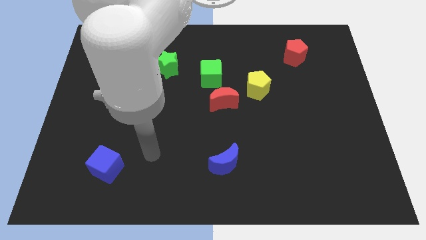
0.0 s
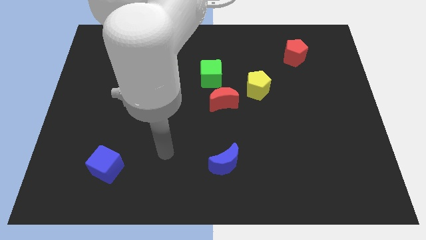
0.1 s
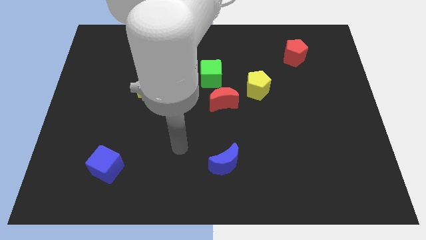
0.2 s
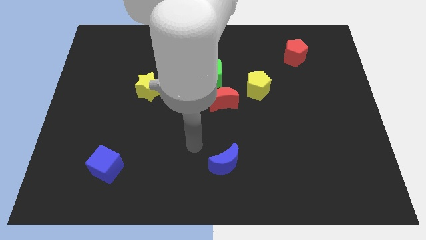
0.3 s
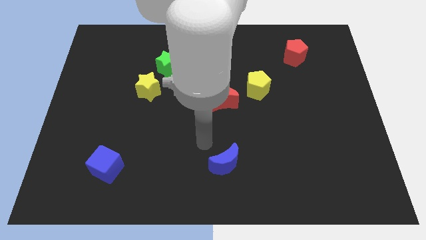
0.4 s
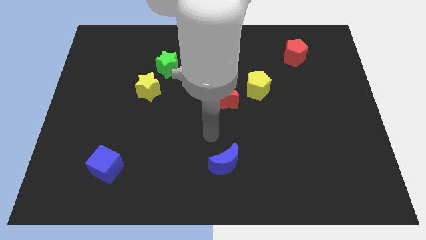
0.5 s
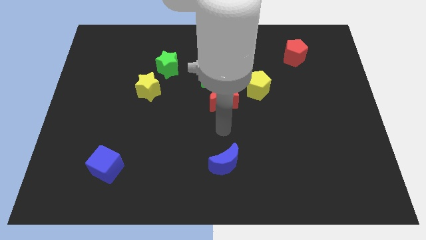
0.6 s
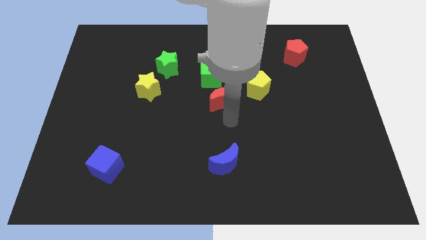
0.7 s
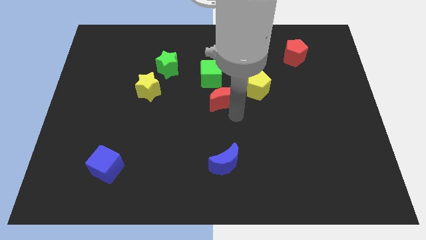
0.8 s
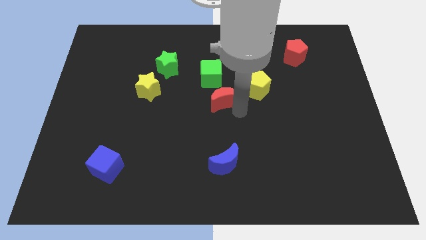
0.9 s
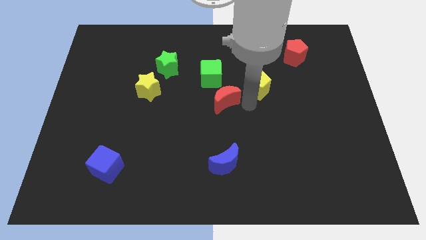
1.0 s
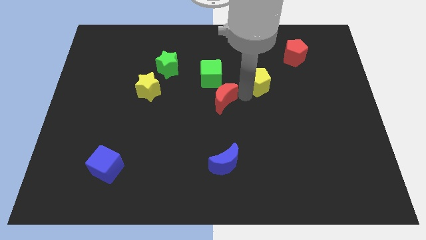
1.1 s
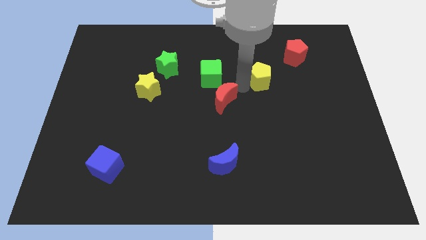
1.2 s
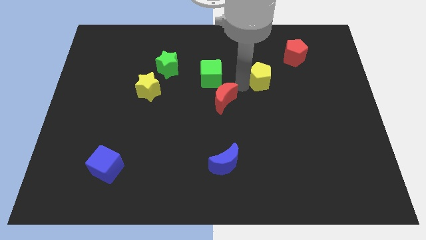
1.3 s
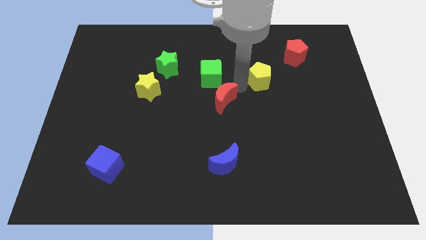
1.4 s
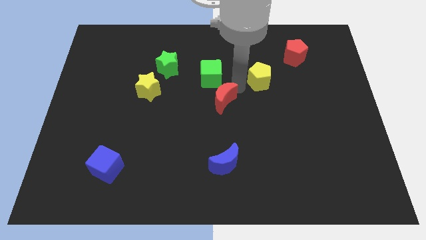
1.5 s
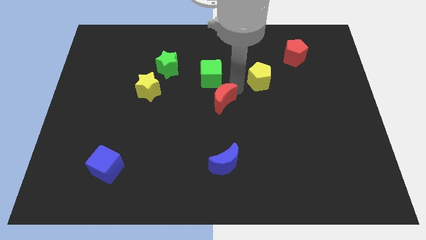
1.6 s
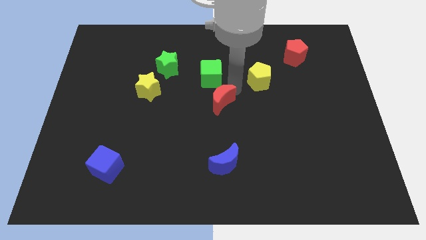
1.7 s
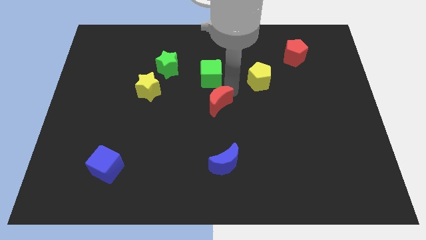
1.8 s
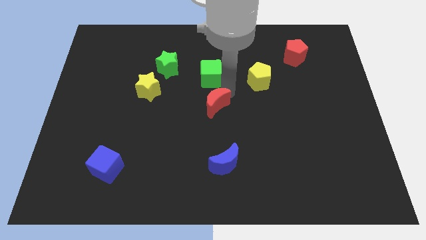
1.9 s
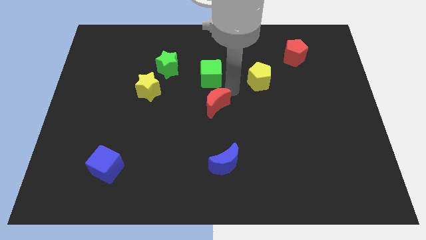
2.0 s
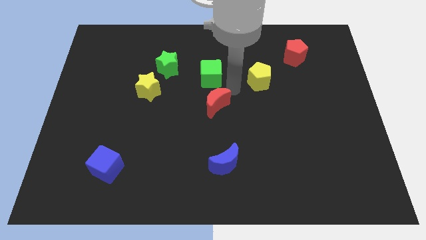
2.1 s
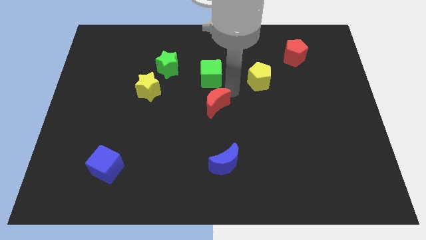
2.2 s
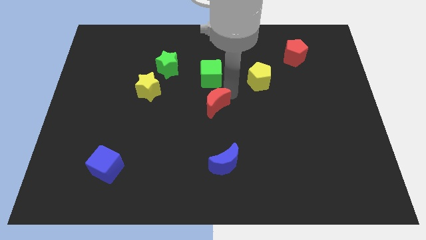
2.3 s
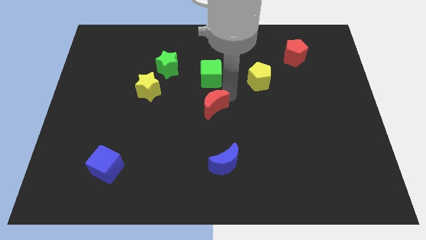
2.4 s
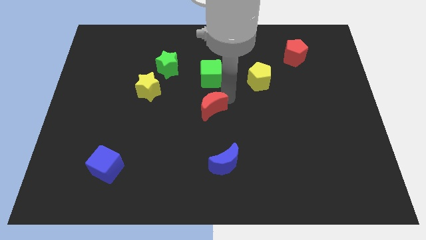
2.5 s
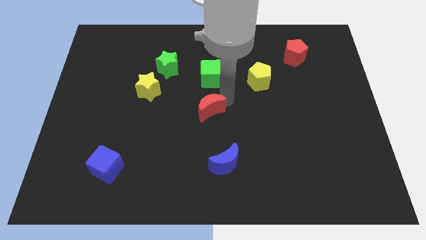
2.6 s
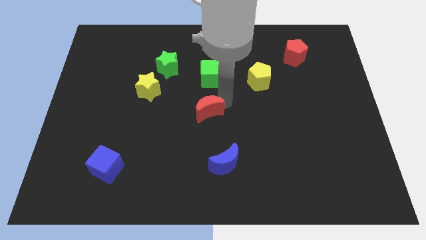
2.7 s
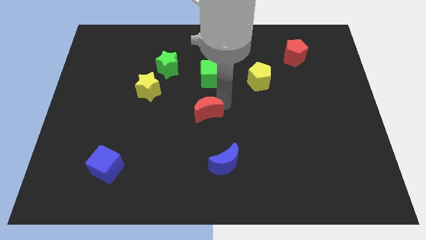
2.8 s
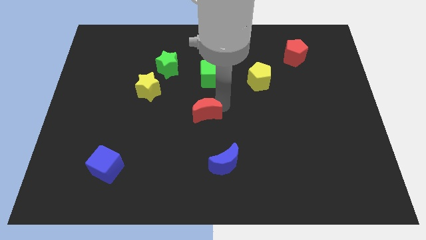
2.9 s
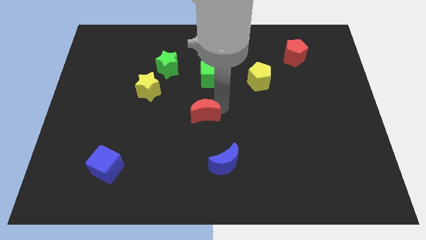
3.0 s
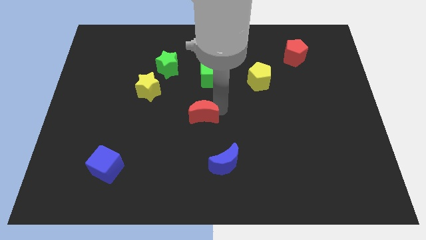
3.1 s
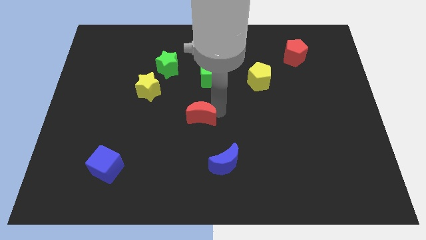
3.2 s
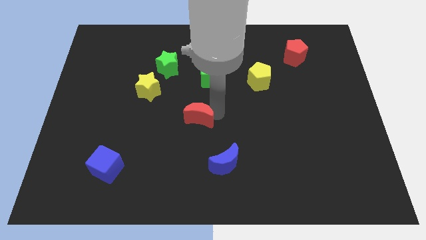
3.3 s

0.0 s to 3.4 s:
slide the red moon down and then left somewhat

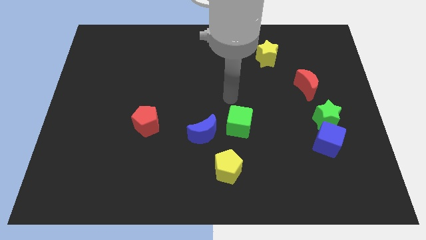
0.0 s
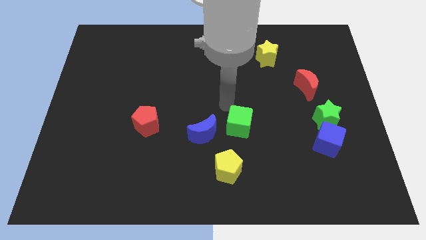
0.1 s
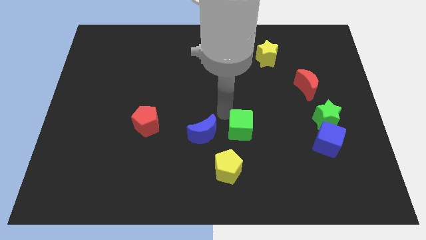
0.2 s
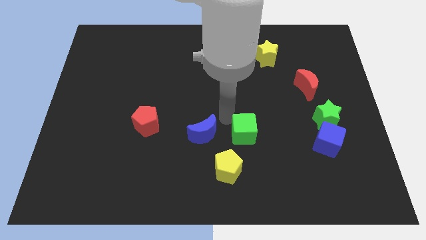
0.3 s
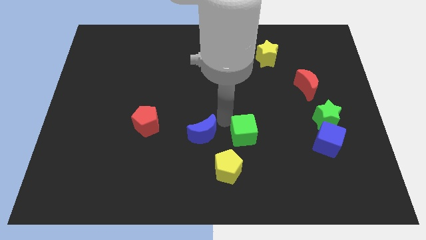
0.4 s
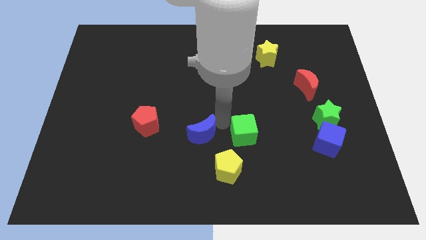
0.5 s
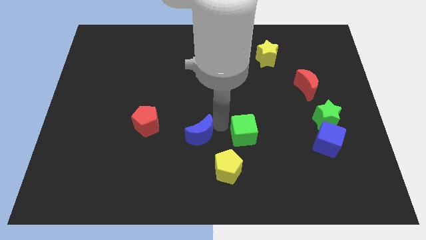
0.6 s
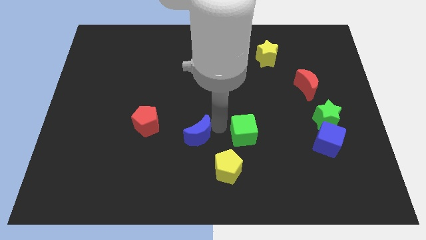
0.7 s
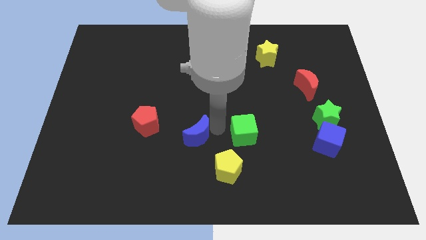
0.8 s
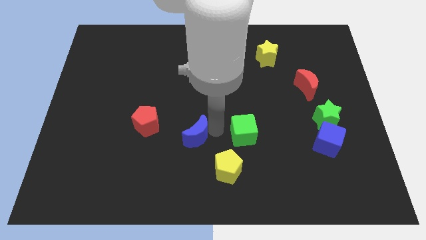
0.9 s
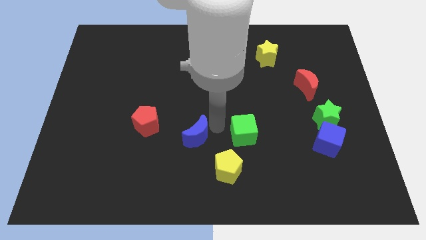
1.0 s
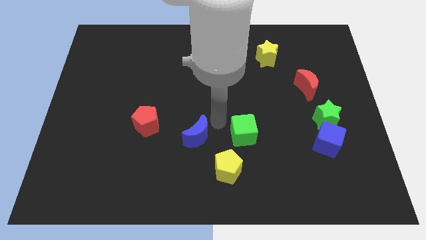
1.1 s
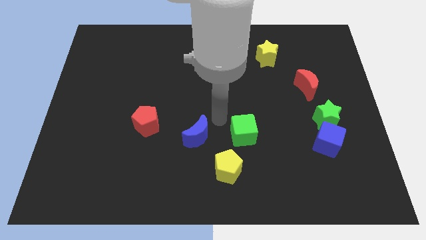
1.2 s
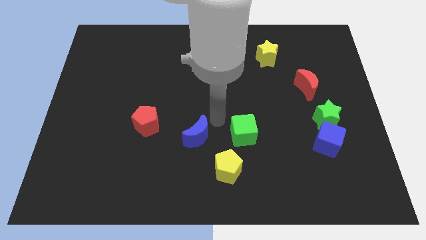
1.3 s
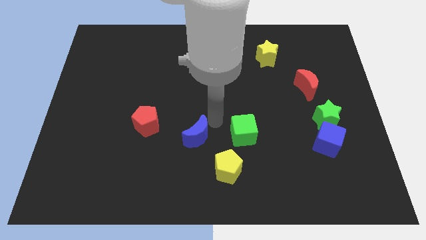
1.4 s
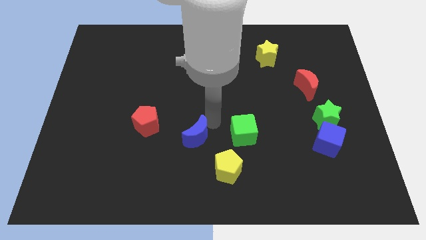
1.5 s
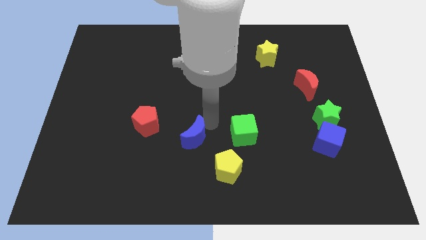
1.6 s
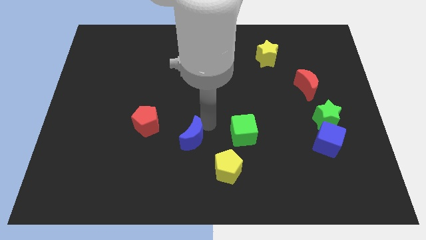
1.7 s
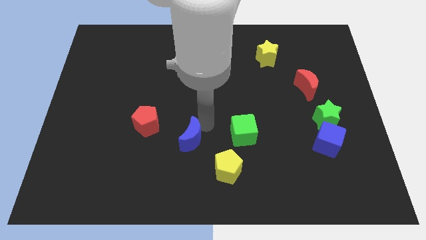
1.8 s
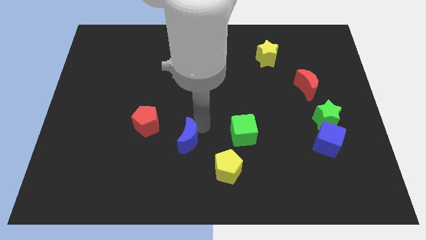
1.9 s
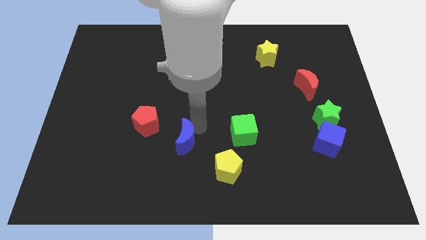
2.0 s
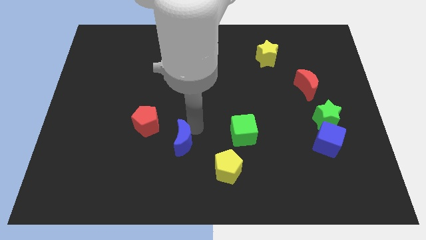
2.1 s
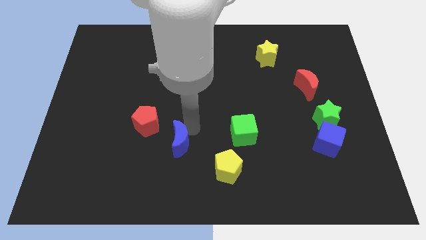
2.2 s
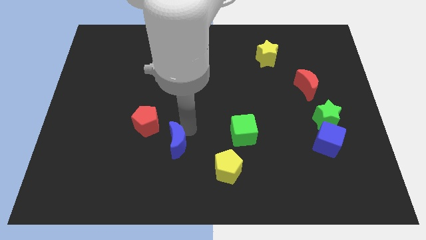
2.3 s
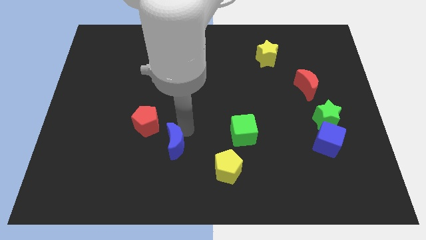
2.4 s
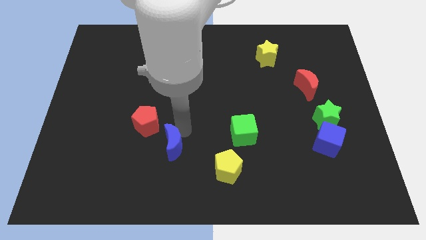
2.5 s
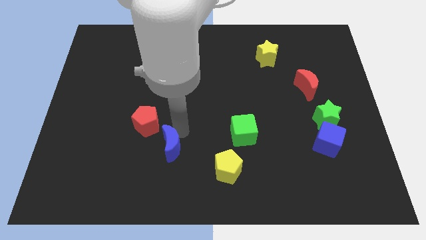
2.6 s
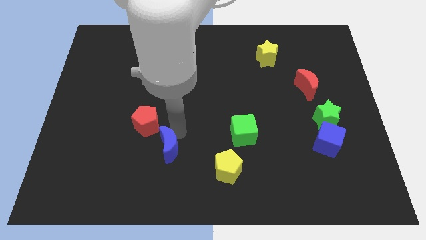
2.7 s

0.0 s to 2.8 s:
slide the blue moon somewhat to the left

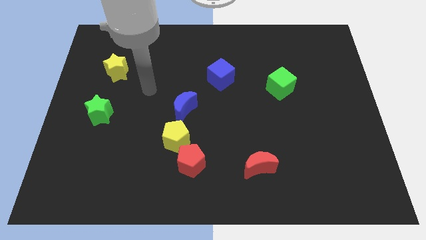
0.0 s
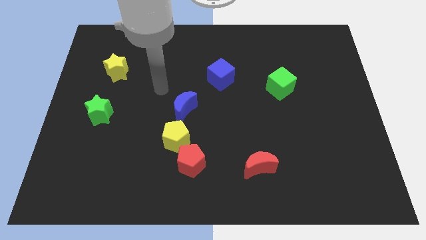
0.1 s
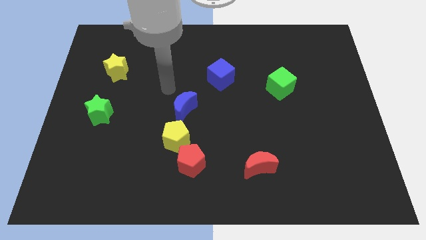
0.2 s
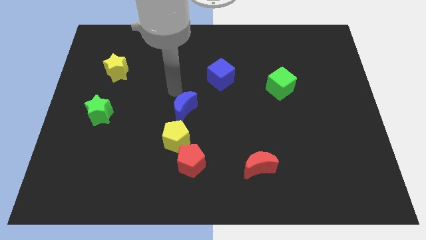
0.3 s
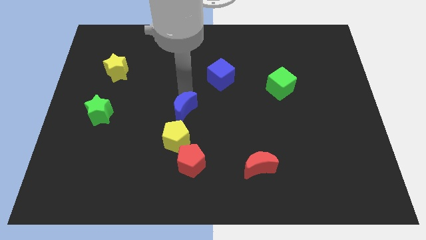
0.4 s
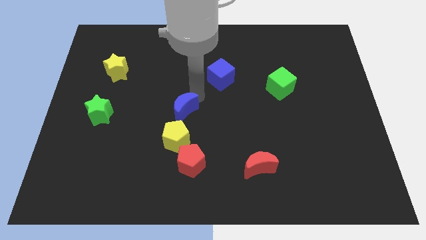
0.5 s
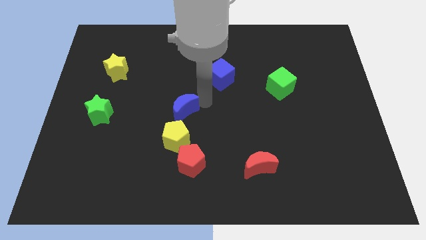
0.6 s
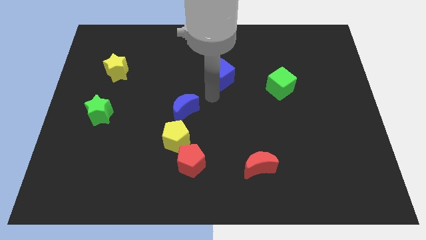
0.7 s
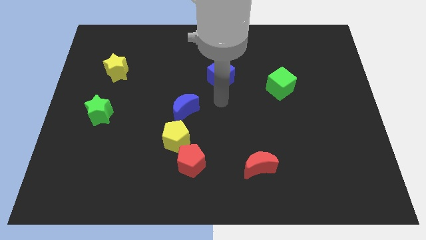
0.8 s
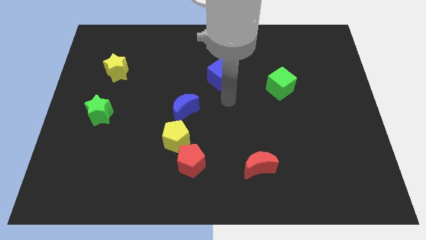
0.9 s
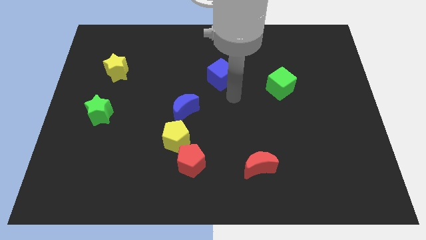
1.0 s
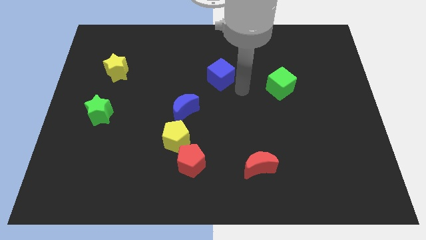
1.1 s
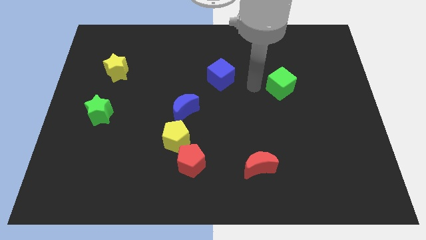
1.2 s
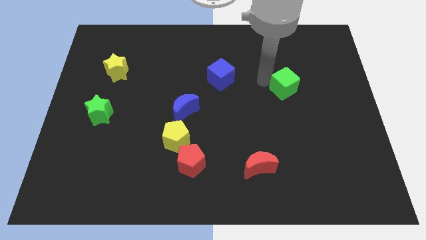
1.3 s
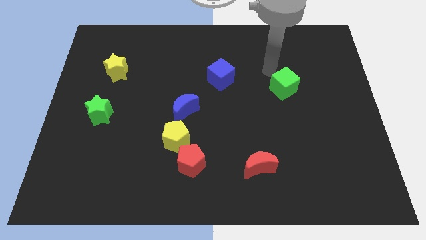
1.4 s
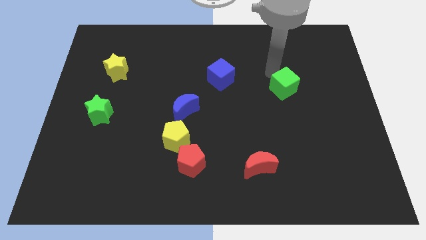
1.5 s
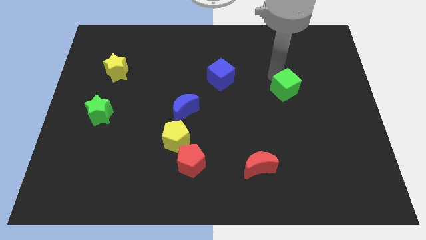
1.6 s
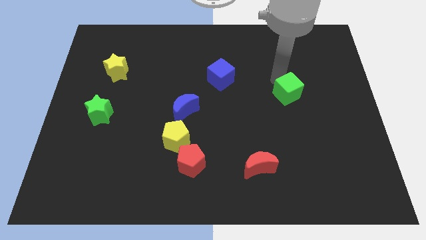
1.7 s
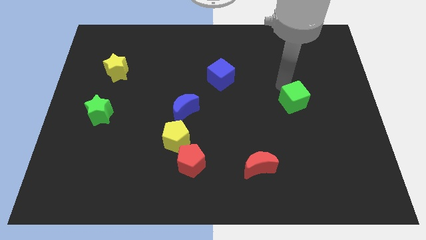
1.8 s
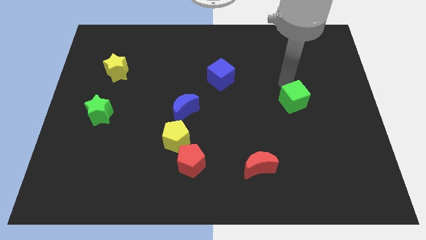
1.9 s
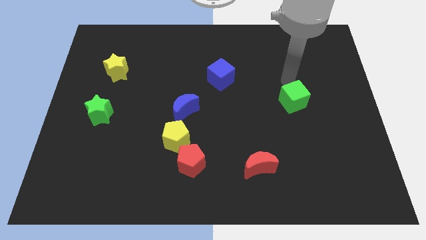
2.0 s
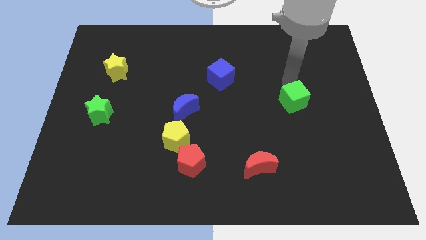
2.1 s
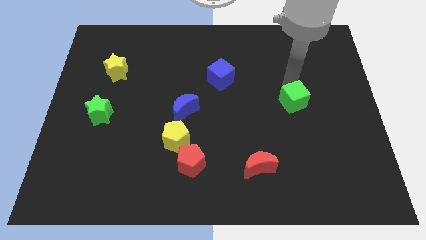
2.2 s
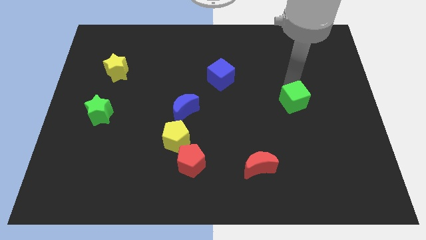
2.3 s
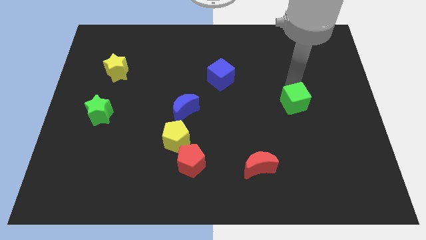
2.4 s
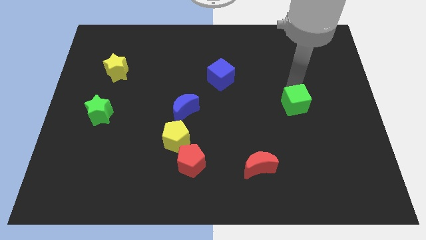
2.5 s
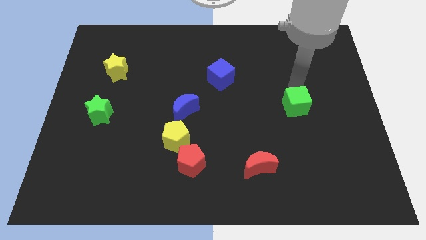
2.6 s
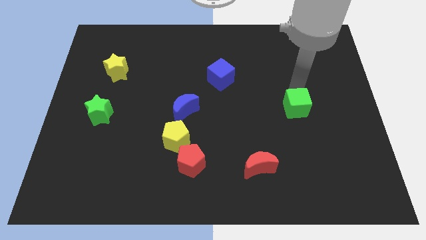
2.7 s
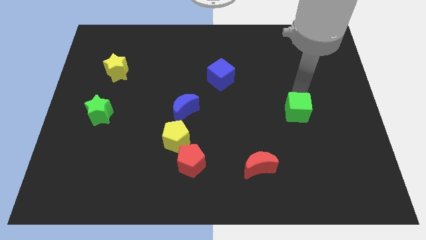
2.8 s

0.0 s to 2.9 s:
move the green cube a little downwards
